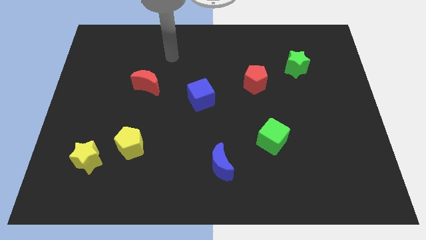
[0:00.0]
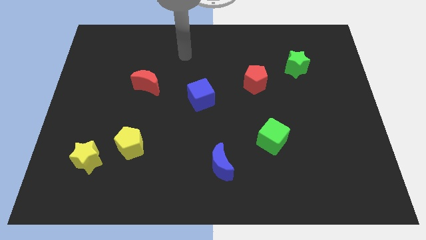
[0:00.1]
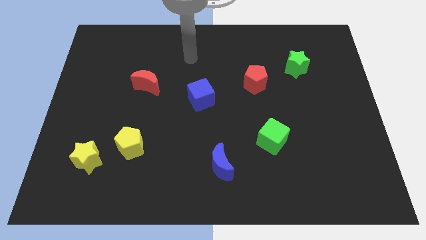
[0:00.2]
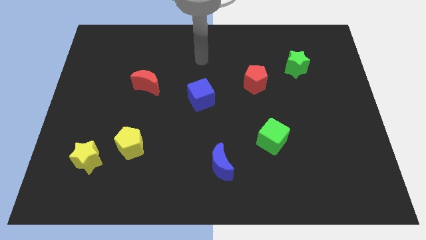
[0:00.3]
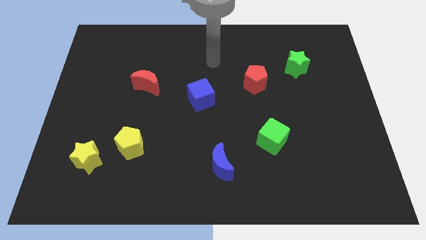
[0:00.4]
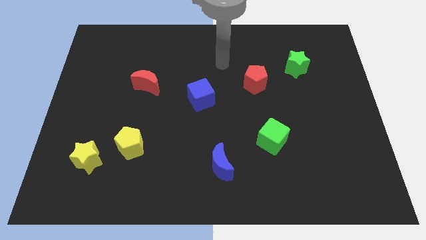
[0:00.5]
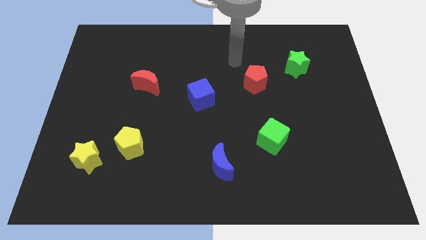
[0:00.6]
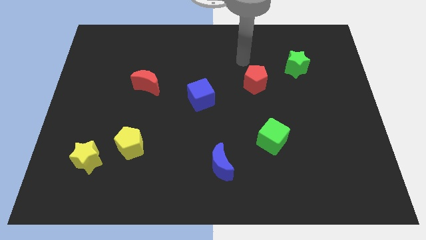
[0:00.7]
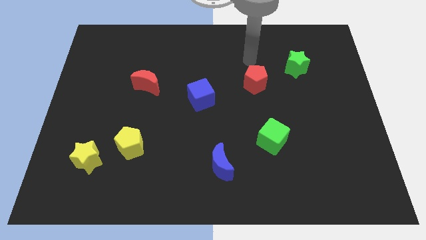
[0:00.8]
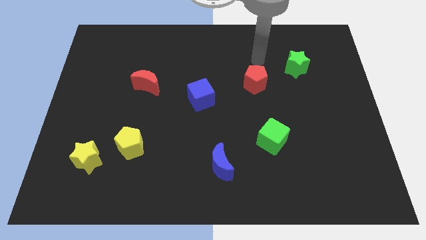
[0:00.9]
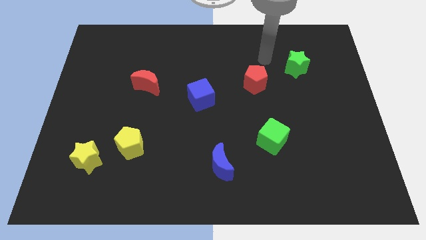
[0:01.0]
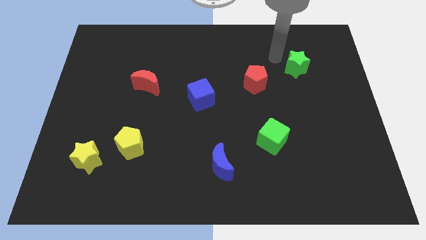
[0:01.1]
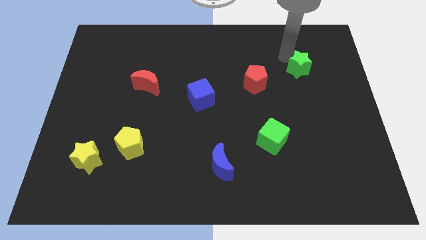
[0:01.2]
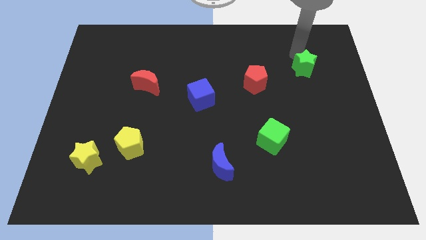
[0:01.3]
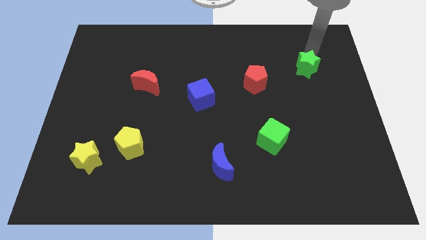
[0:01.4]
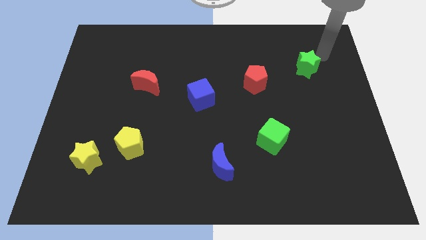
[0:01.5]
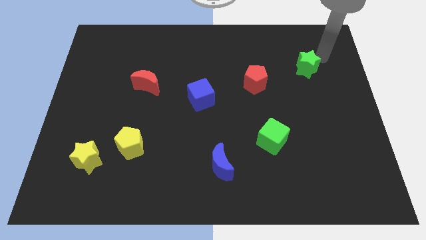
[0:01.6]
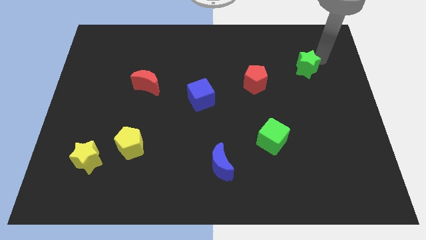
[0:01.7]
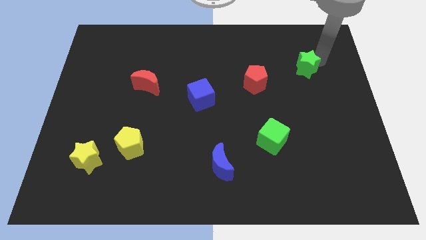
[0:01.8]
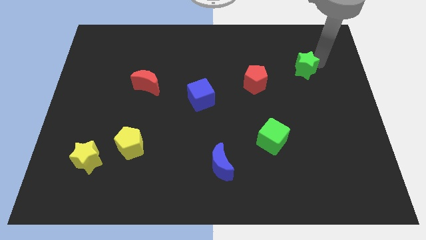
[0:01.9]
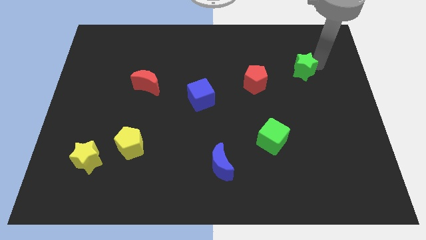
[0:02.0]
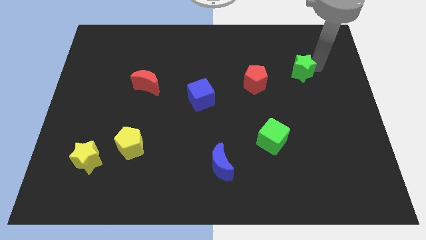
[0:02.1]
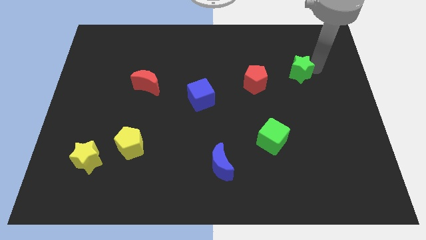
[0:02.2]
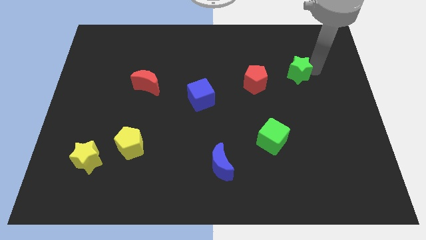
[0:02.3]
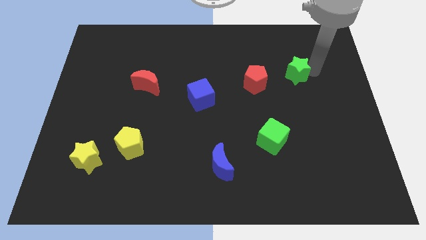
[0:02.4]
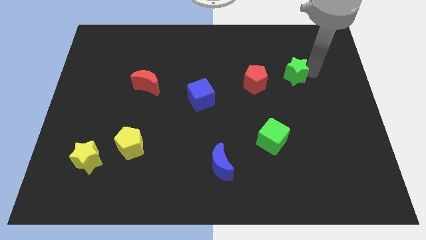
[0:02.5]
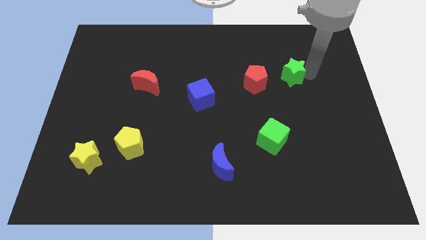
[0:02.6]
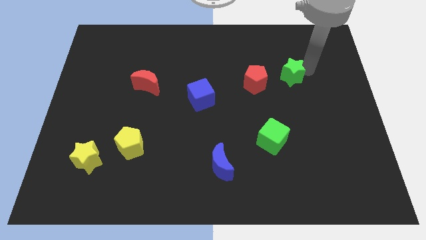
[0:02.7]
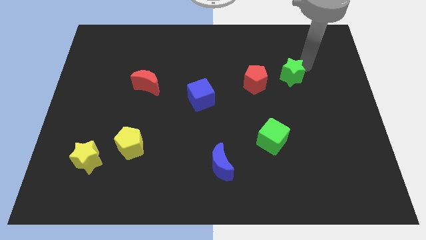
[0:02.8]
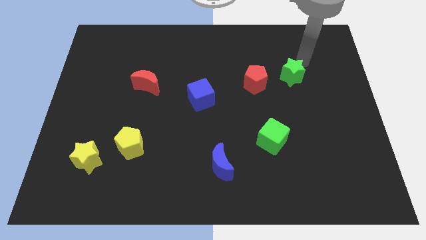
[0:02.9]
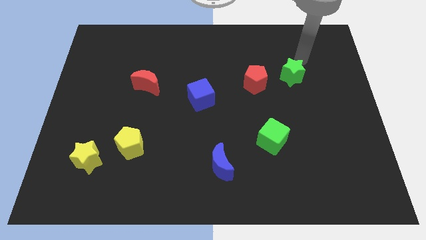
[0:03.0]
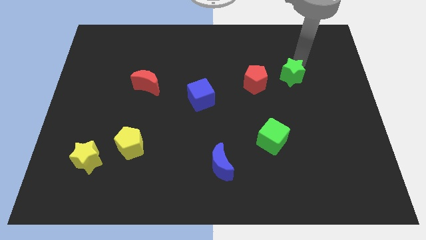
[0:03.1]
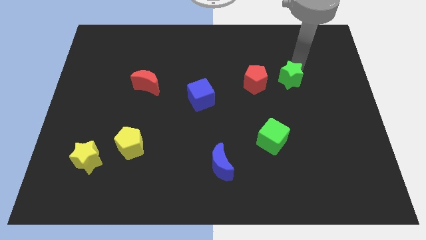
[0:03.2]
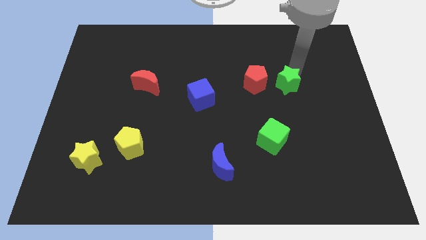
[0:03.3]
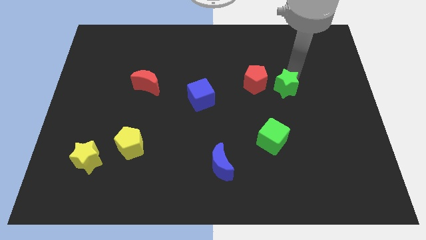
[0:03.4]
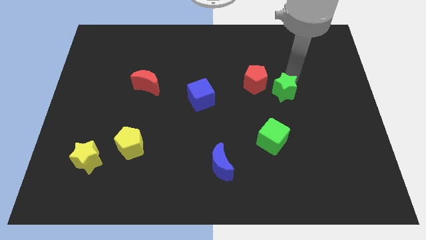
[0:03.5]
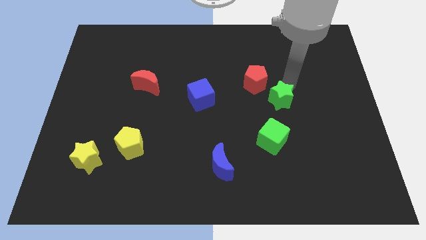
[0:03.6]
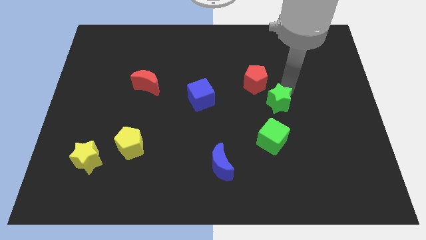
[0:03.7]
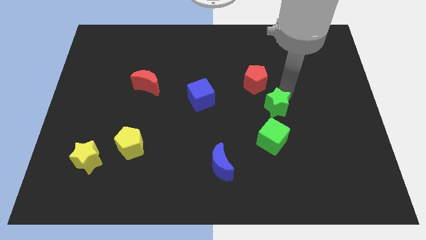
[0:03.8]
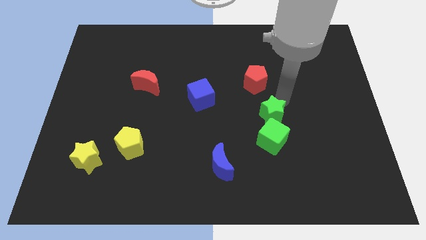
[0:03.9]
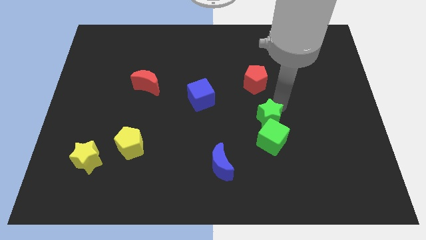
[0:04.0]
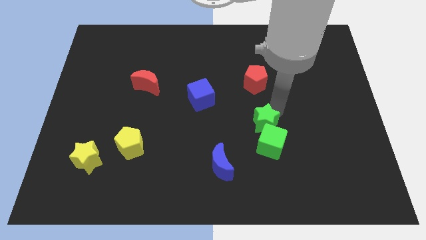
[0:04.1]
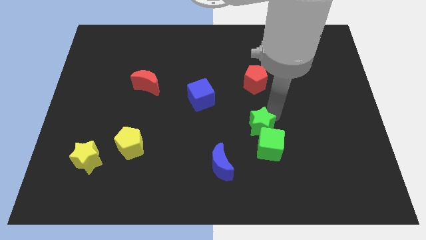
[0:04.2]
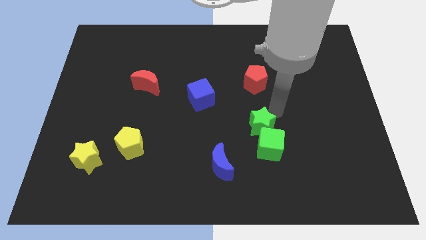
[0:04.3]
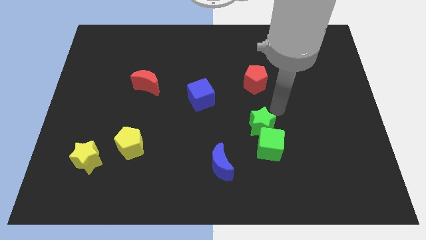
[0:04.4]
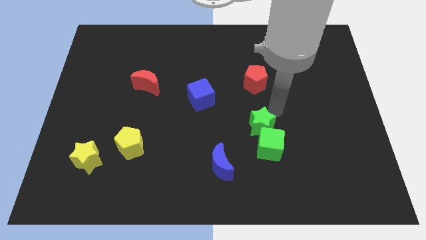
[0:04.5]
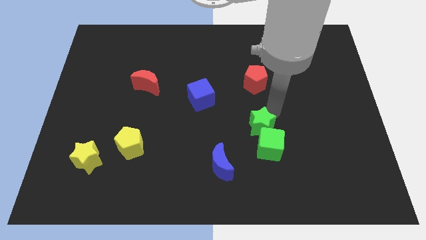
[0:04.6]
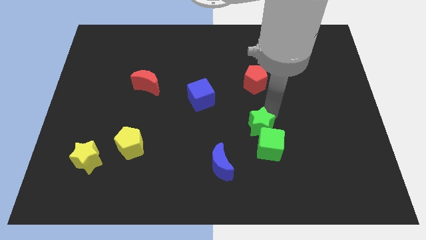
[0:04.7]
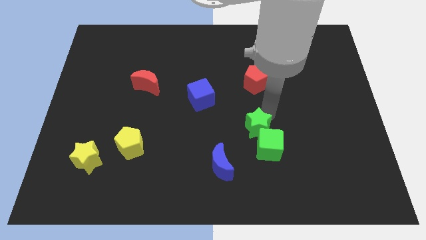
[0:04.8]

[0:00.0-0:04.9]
slide the green star to the top right of the blue moon

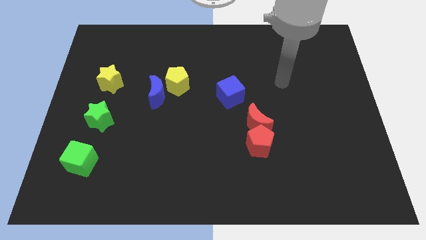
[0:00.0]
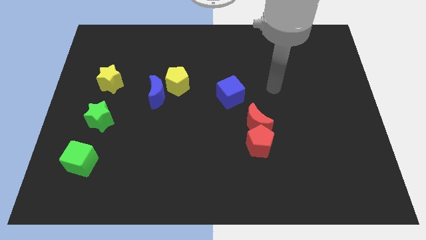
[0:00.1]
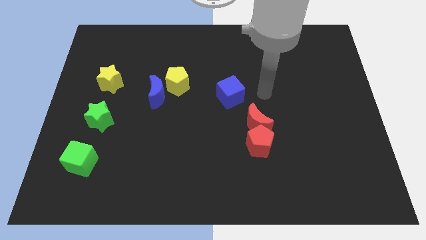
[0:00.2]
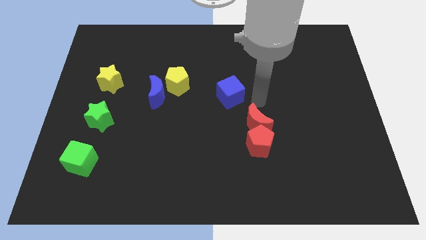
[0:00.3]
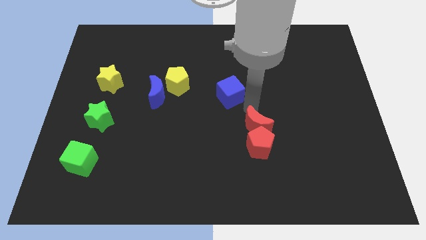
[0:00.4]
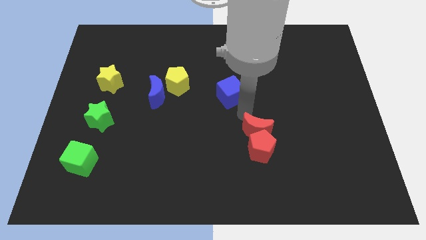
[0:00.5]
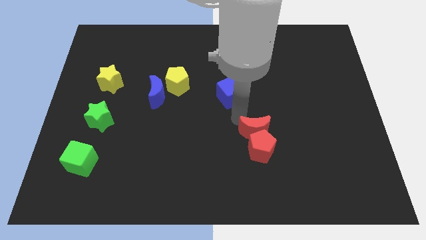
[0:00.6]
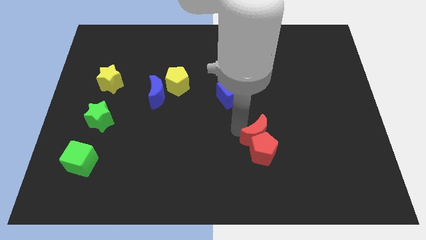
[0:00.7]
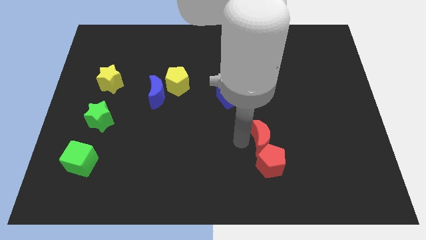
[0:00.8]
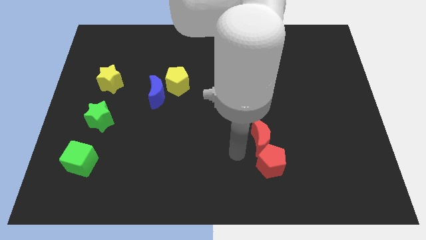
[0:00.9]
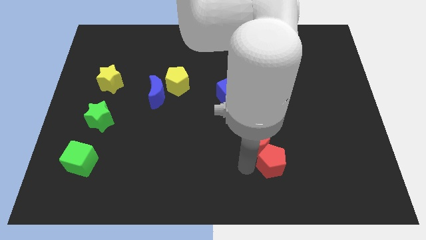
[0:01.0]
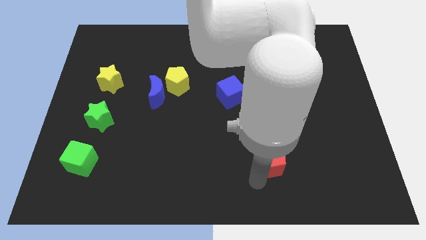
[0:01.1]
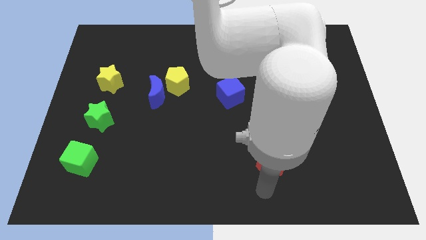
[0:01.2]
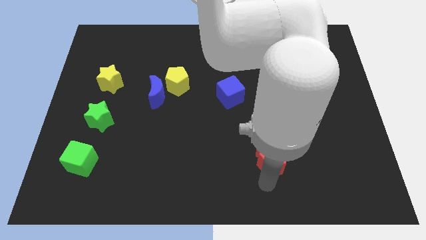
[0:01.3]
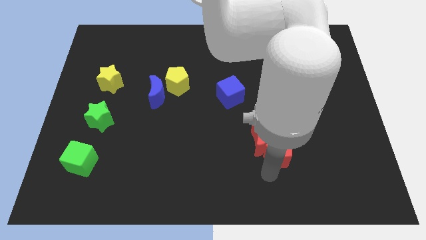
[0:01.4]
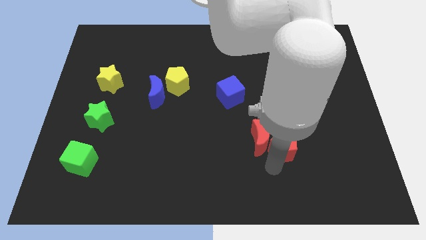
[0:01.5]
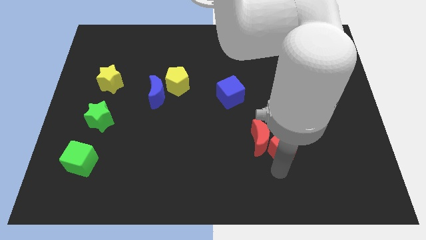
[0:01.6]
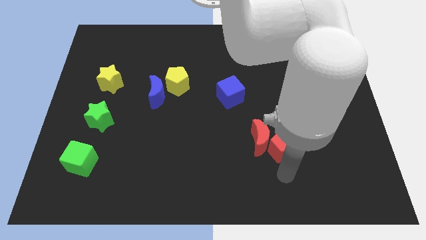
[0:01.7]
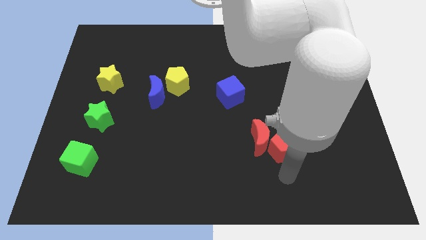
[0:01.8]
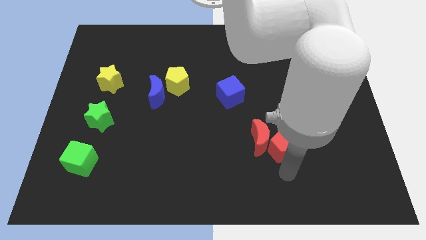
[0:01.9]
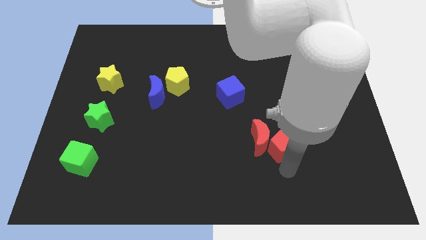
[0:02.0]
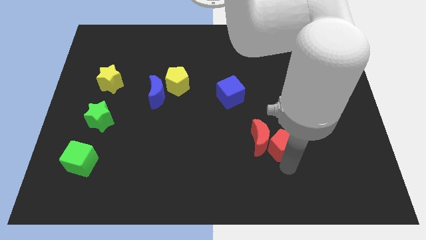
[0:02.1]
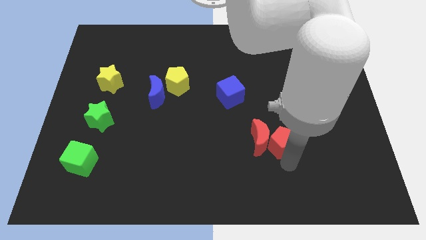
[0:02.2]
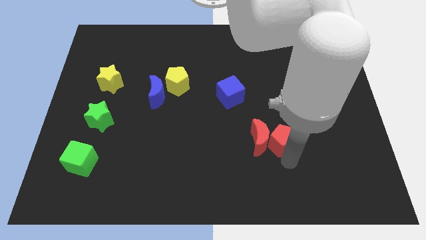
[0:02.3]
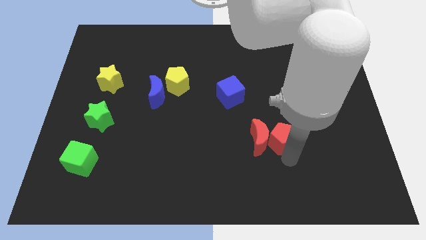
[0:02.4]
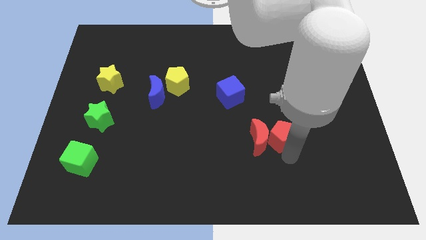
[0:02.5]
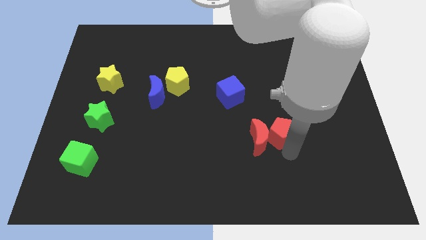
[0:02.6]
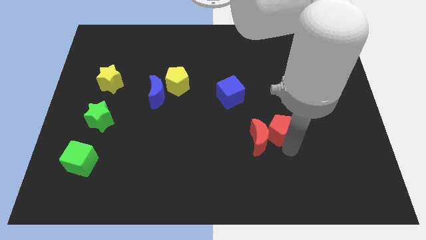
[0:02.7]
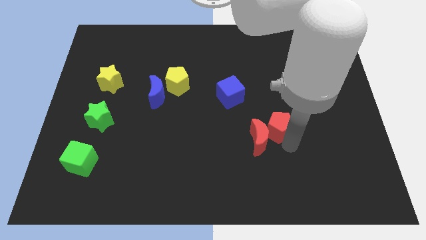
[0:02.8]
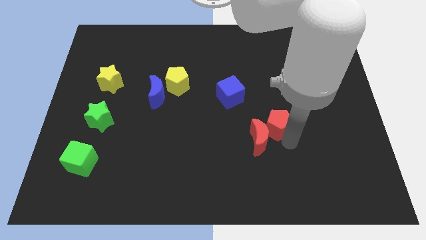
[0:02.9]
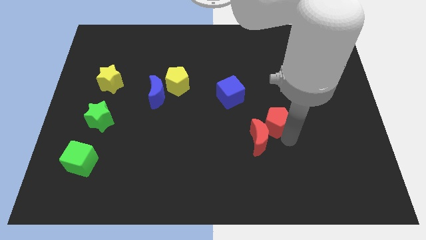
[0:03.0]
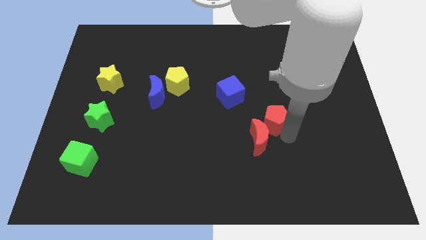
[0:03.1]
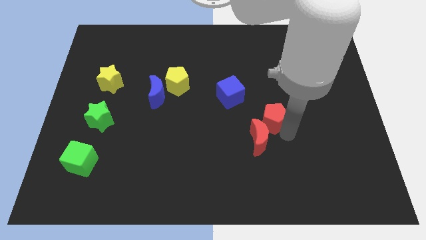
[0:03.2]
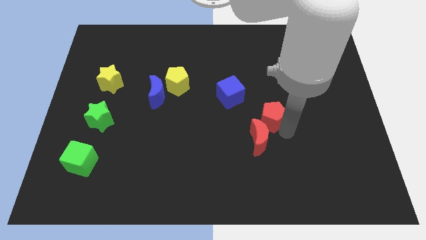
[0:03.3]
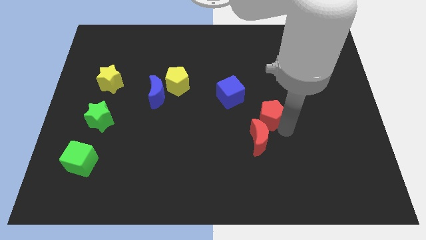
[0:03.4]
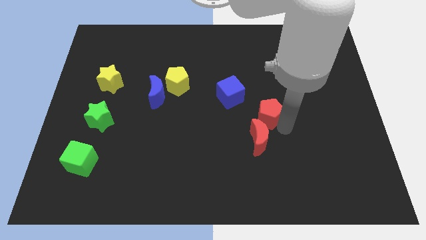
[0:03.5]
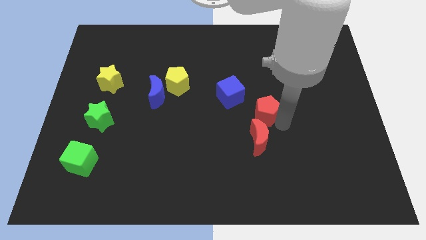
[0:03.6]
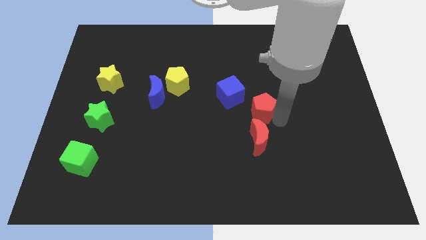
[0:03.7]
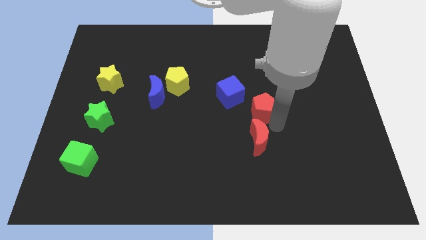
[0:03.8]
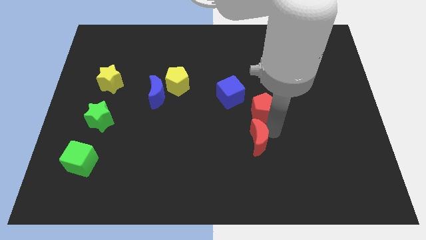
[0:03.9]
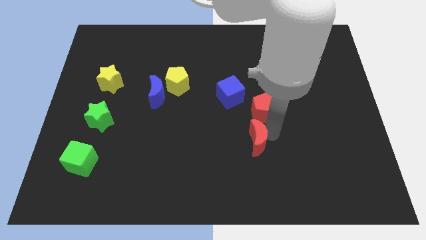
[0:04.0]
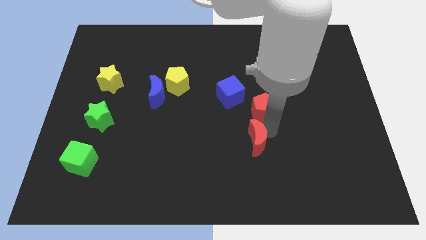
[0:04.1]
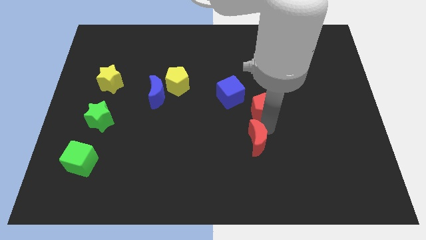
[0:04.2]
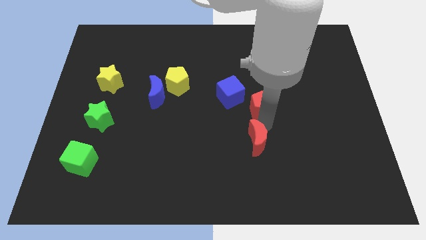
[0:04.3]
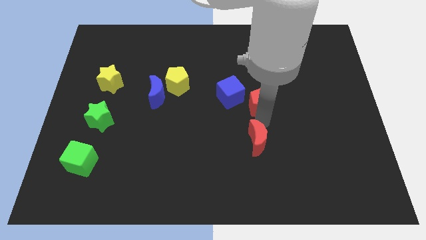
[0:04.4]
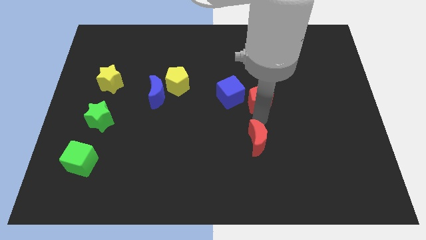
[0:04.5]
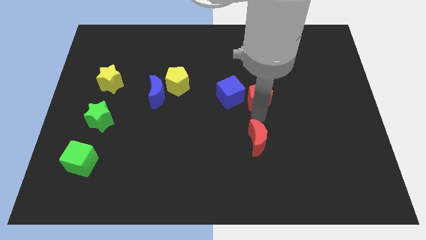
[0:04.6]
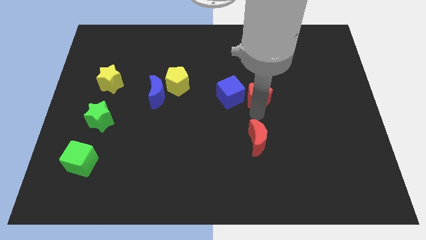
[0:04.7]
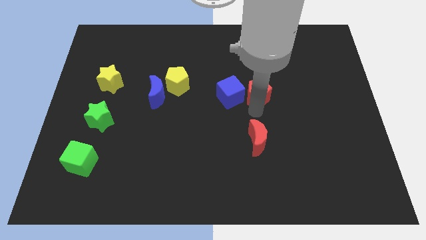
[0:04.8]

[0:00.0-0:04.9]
move the red pentagon diagonally up and to the right of the blue cube
